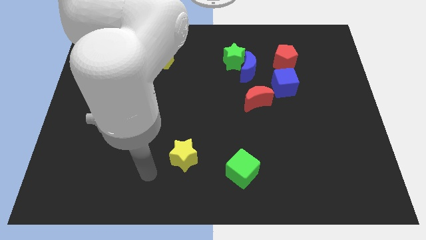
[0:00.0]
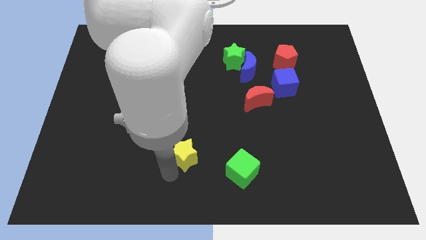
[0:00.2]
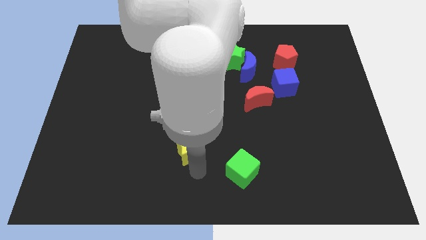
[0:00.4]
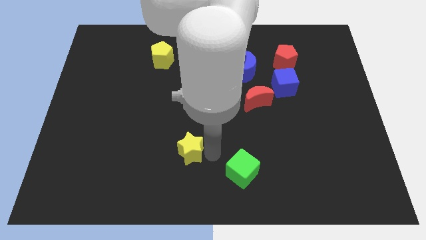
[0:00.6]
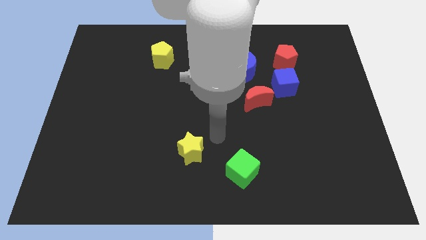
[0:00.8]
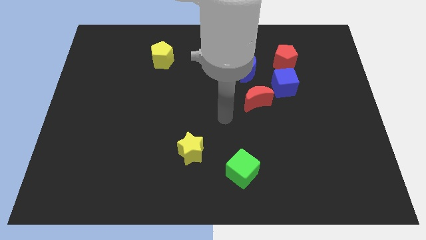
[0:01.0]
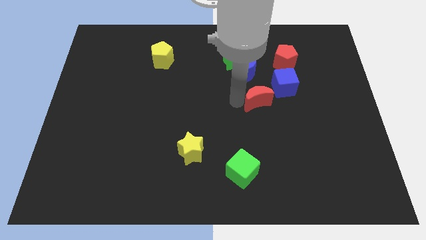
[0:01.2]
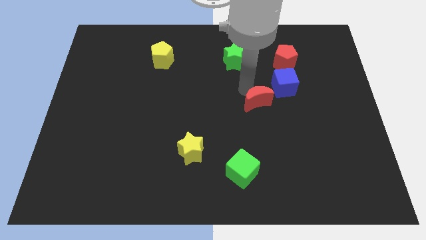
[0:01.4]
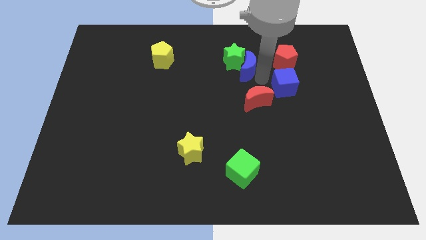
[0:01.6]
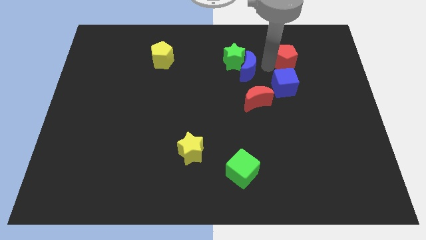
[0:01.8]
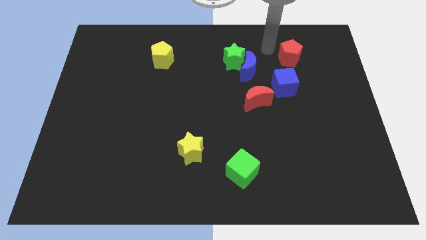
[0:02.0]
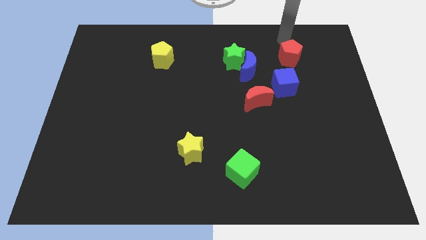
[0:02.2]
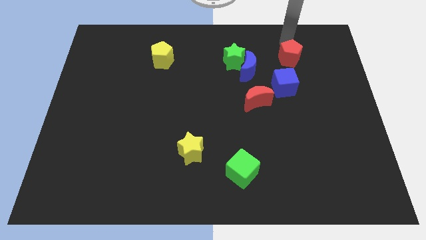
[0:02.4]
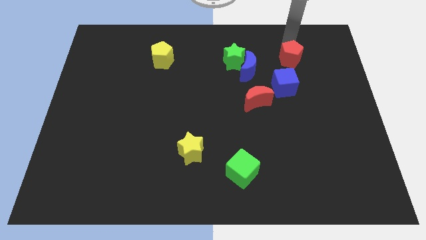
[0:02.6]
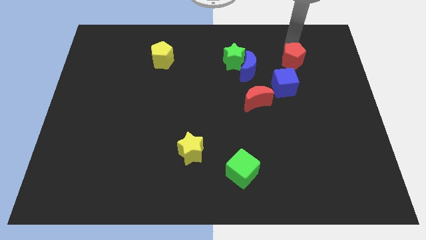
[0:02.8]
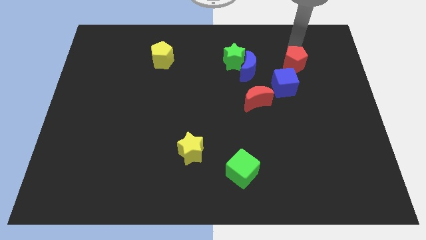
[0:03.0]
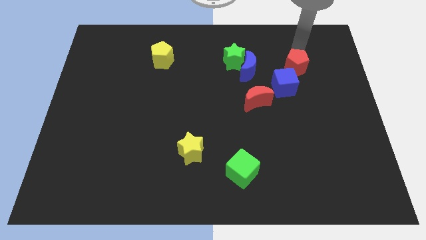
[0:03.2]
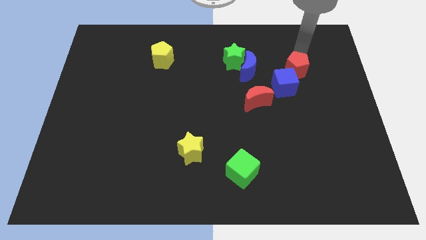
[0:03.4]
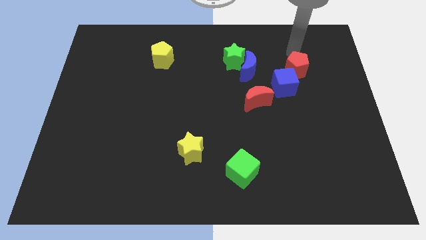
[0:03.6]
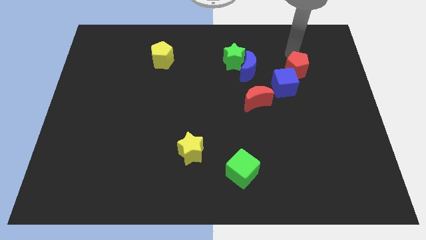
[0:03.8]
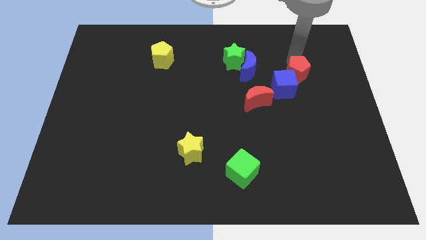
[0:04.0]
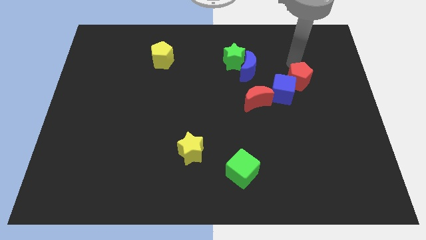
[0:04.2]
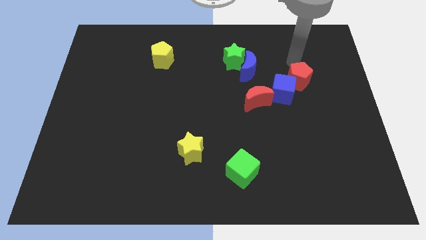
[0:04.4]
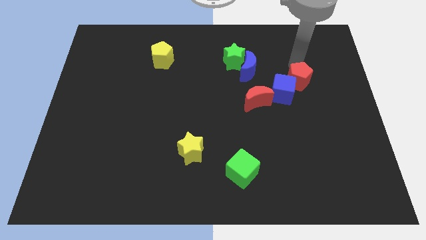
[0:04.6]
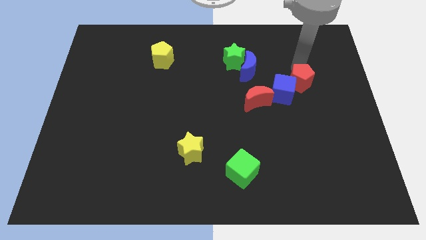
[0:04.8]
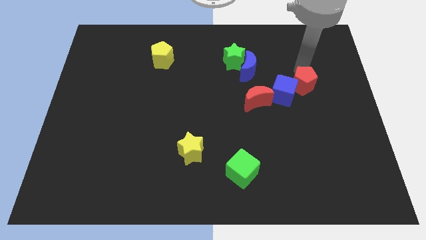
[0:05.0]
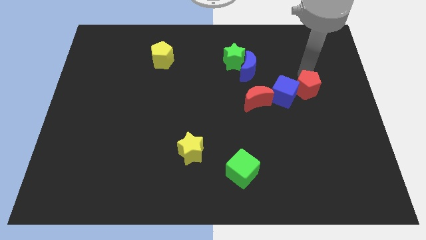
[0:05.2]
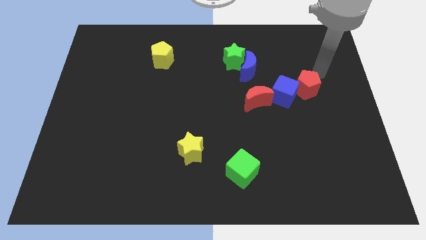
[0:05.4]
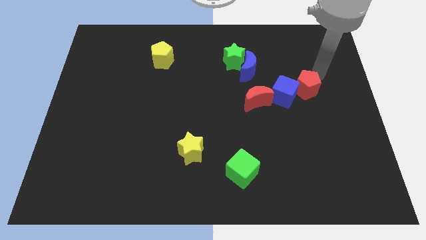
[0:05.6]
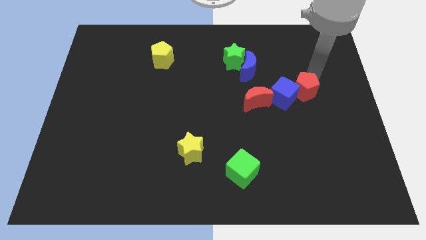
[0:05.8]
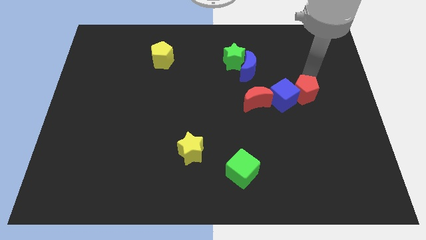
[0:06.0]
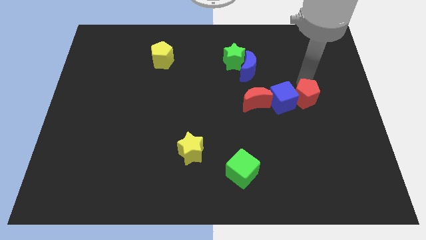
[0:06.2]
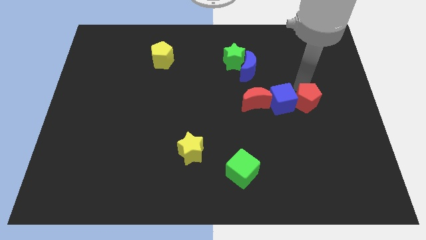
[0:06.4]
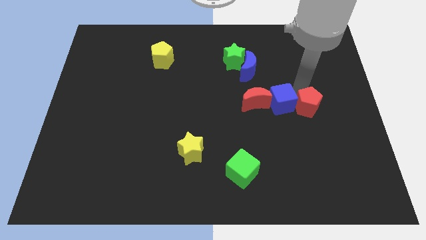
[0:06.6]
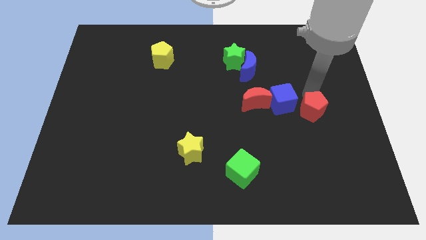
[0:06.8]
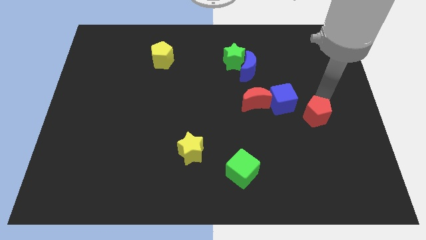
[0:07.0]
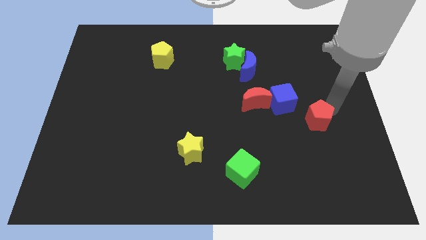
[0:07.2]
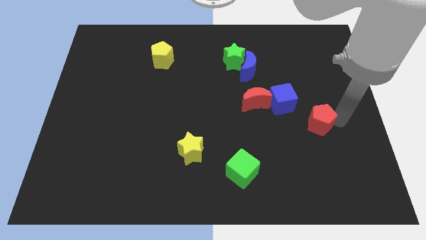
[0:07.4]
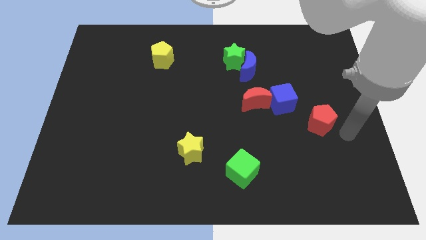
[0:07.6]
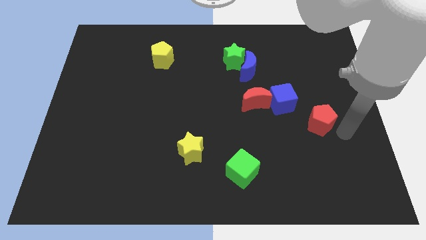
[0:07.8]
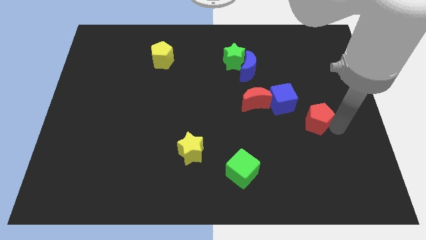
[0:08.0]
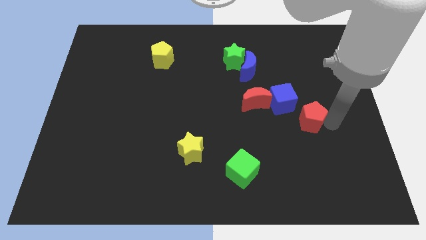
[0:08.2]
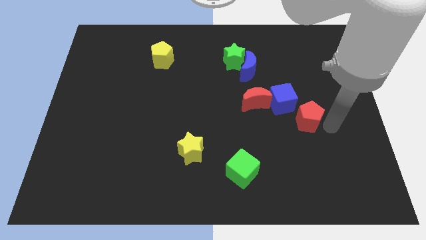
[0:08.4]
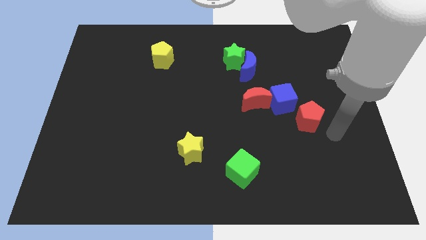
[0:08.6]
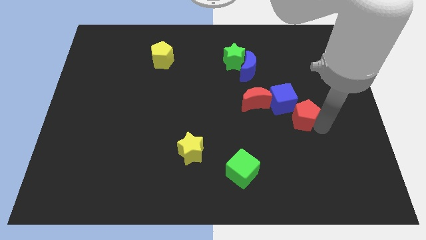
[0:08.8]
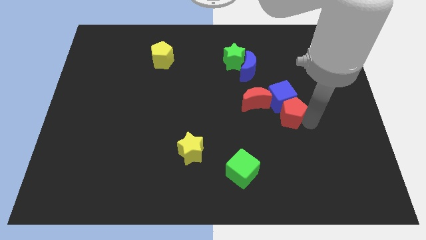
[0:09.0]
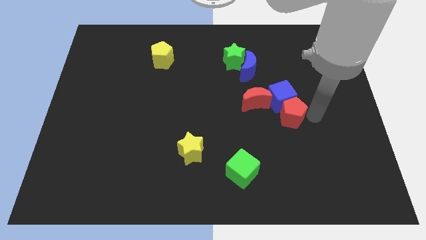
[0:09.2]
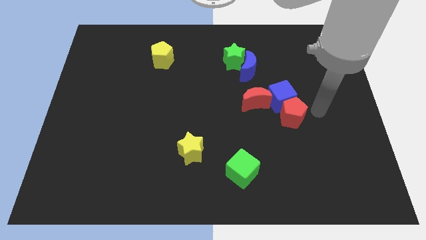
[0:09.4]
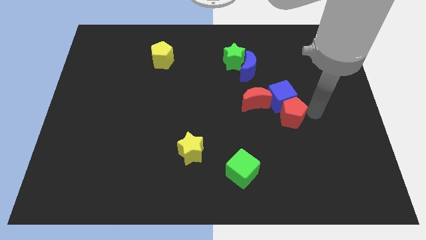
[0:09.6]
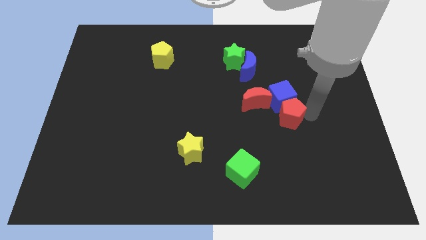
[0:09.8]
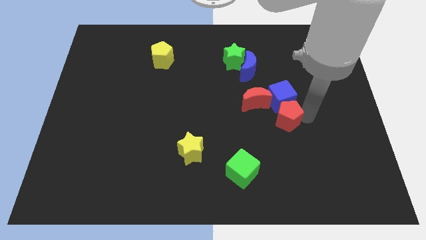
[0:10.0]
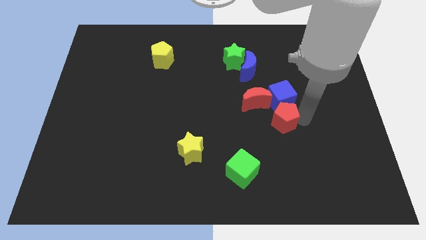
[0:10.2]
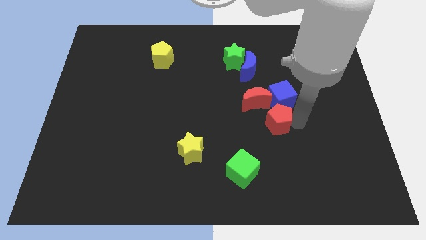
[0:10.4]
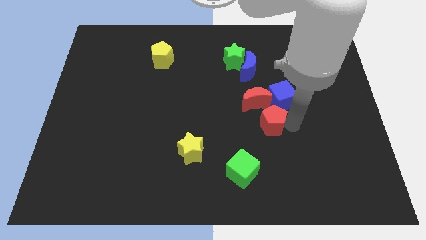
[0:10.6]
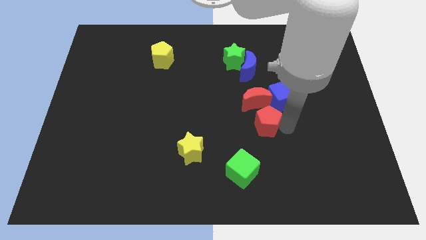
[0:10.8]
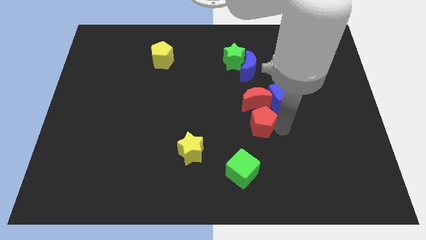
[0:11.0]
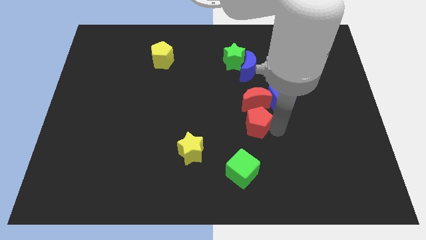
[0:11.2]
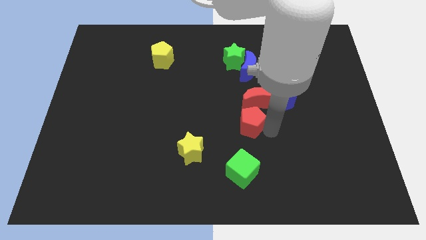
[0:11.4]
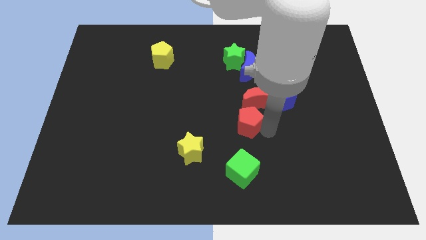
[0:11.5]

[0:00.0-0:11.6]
push the red pentagon downwards and then to the left

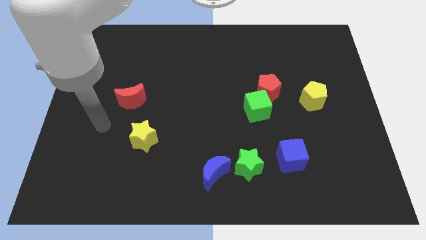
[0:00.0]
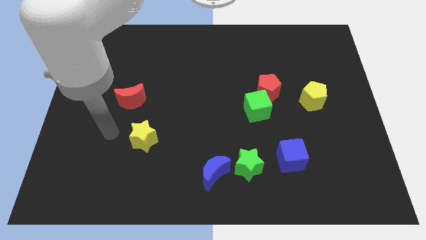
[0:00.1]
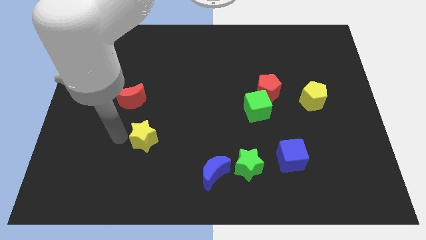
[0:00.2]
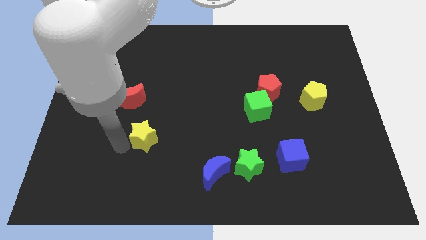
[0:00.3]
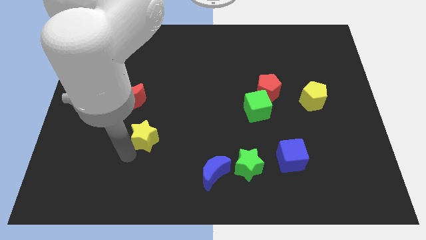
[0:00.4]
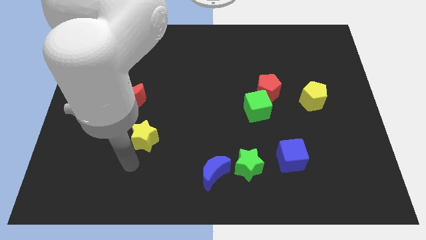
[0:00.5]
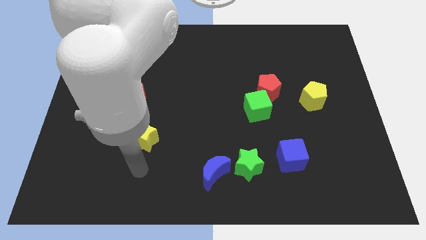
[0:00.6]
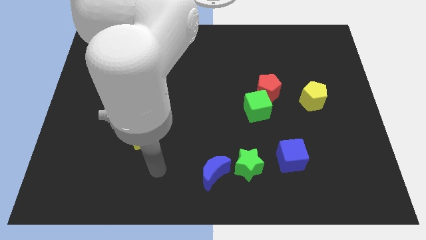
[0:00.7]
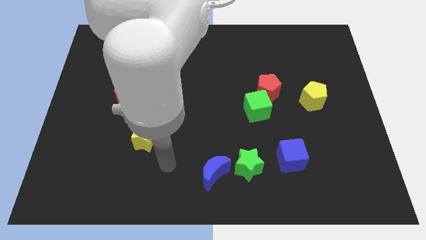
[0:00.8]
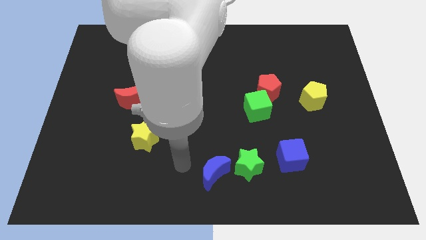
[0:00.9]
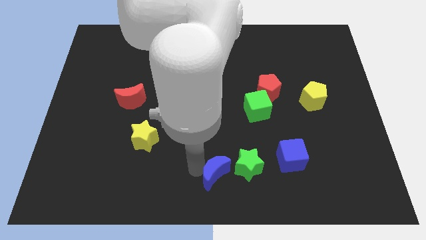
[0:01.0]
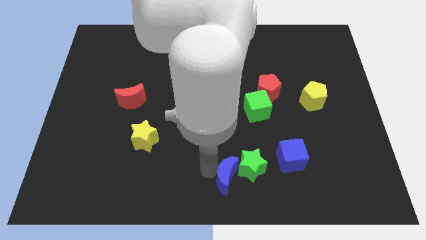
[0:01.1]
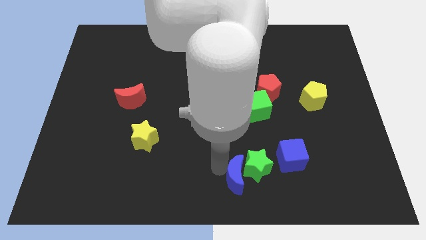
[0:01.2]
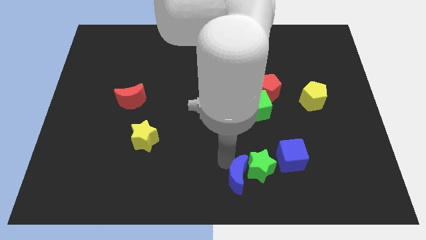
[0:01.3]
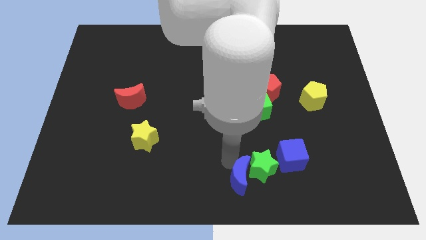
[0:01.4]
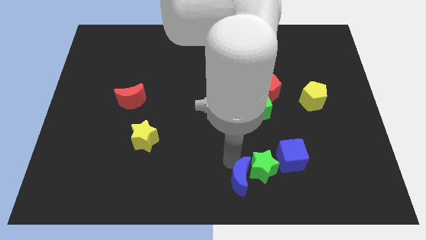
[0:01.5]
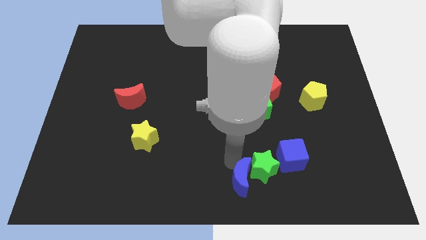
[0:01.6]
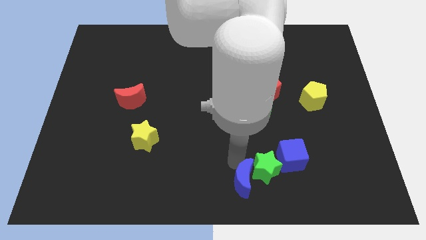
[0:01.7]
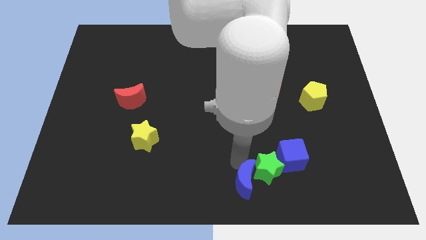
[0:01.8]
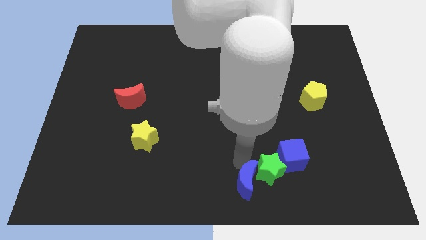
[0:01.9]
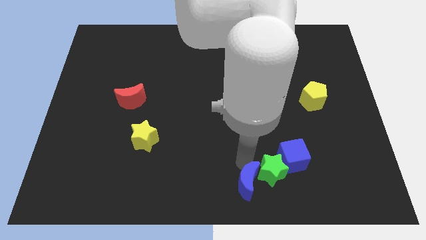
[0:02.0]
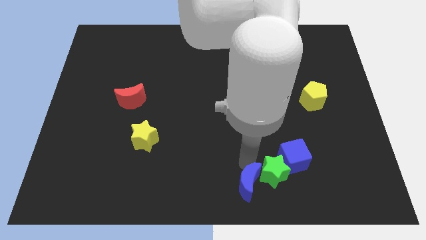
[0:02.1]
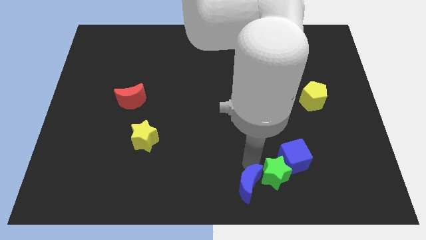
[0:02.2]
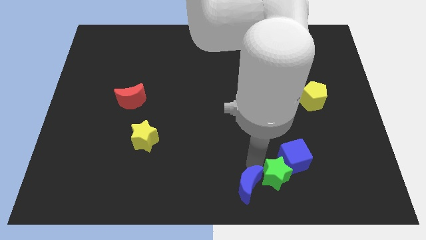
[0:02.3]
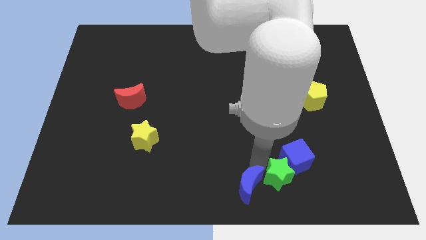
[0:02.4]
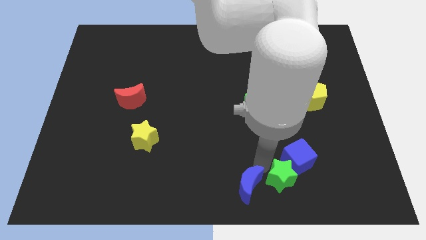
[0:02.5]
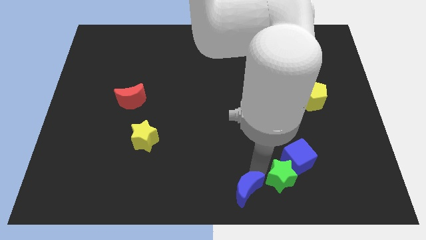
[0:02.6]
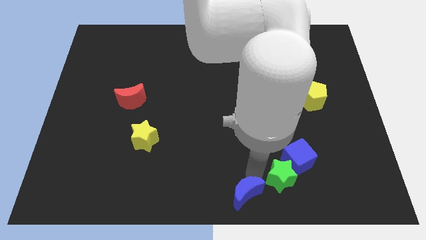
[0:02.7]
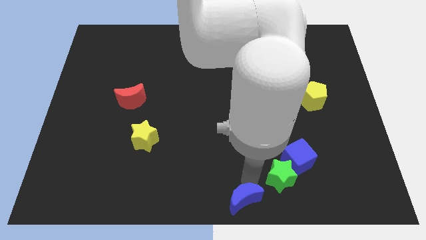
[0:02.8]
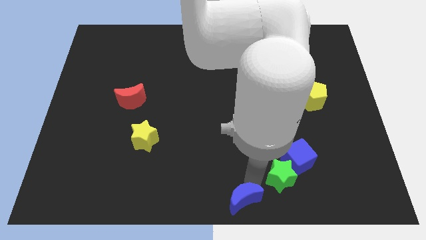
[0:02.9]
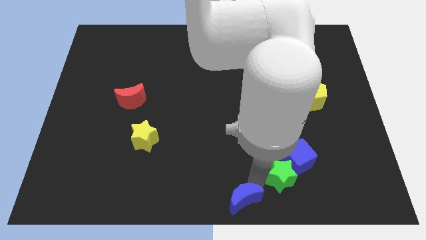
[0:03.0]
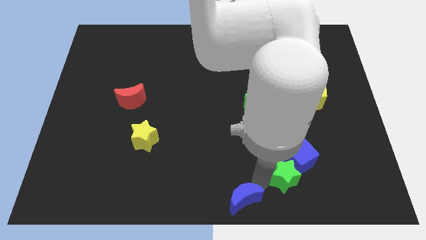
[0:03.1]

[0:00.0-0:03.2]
slide the green star somewhat to the right
